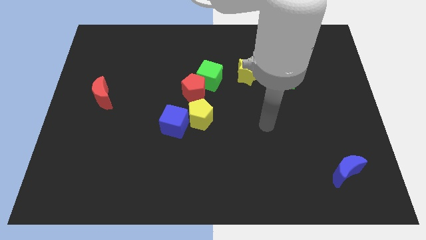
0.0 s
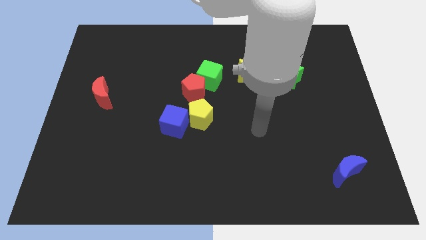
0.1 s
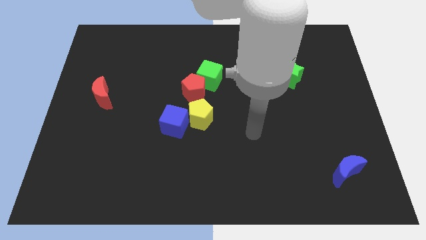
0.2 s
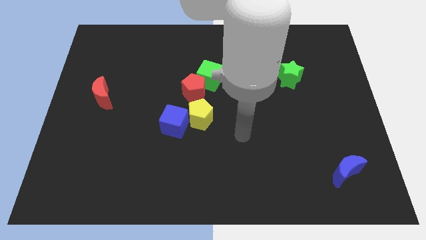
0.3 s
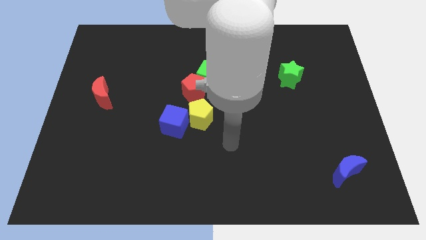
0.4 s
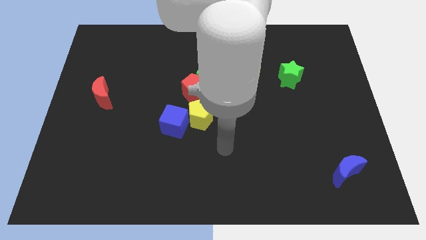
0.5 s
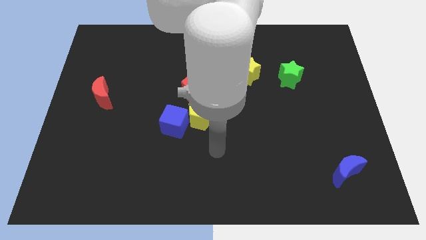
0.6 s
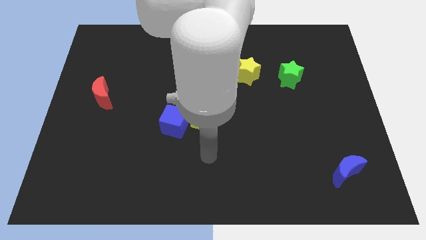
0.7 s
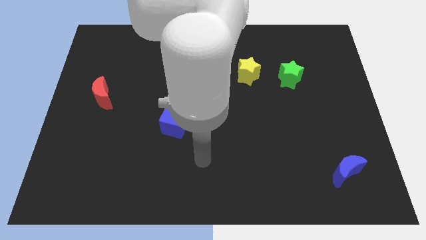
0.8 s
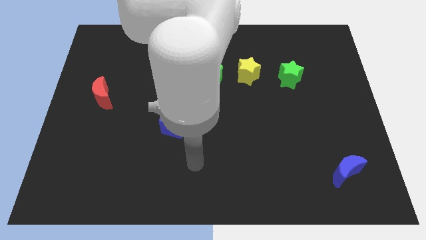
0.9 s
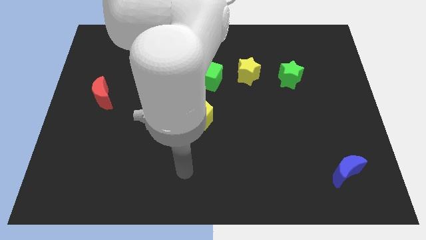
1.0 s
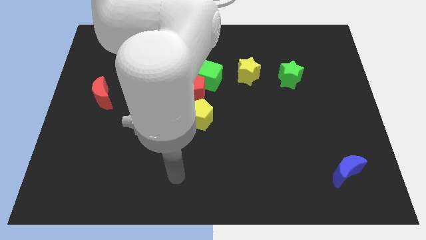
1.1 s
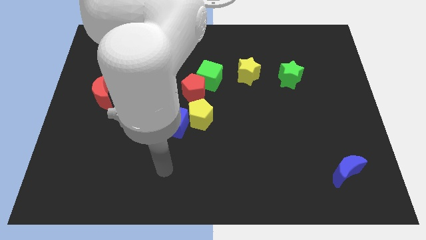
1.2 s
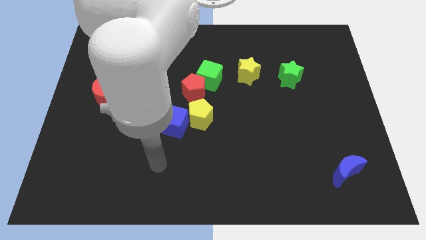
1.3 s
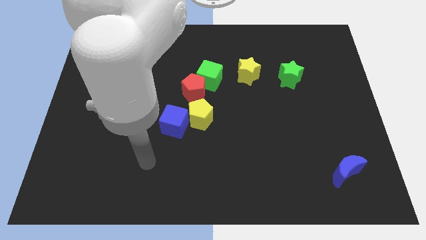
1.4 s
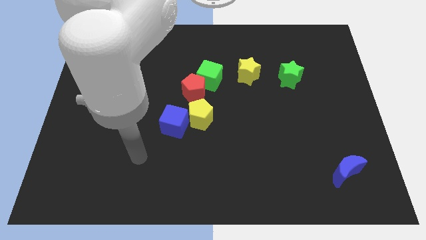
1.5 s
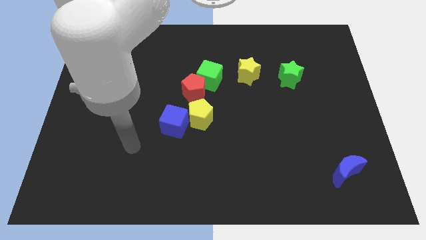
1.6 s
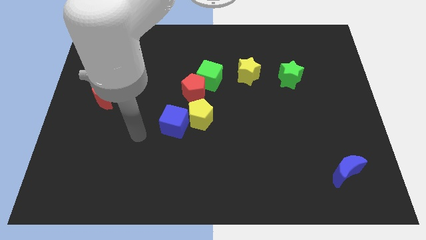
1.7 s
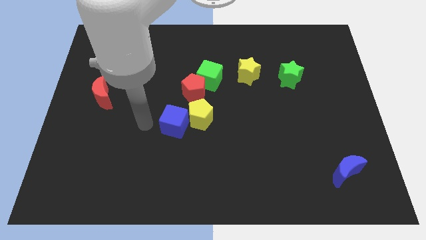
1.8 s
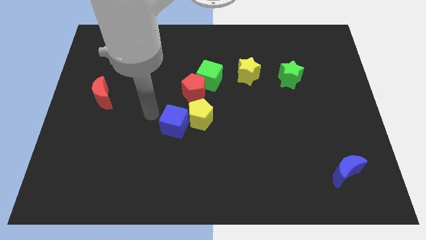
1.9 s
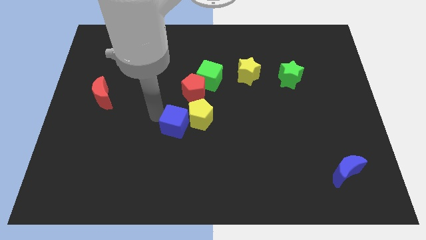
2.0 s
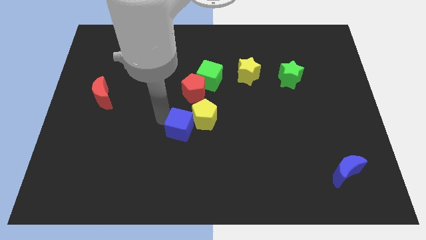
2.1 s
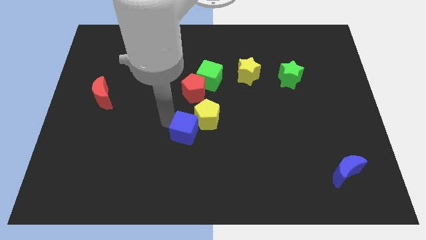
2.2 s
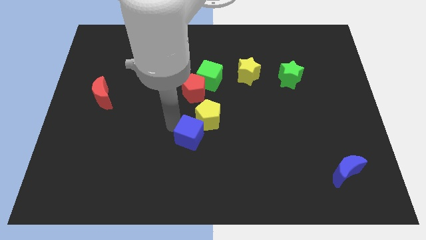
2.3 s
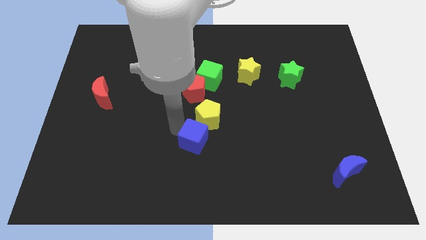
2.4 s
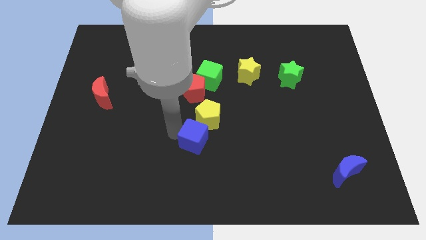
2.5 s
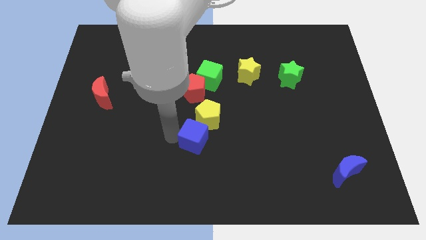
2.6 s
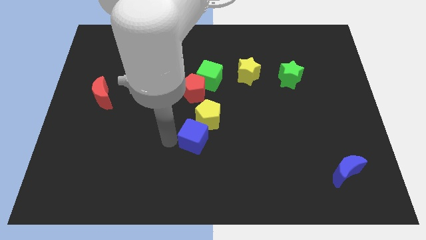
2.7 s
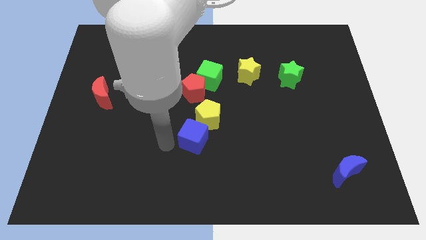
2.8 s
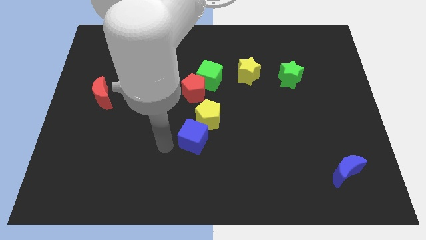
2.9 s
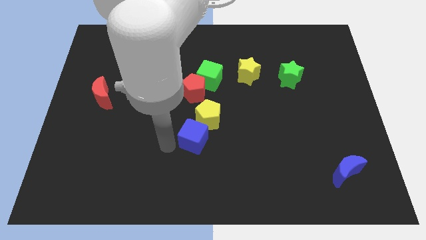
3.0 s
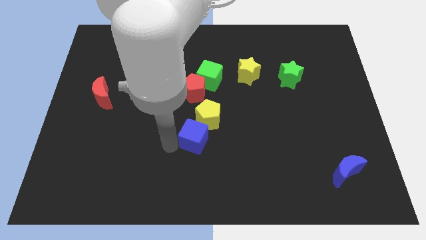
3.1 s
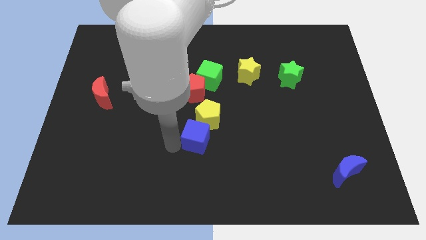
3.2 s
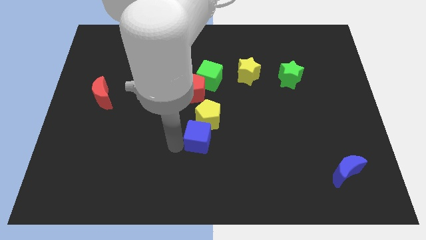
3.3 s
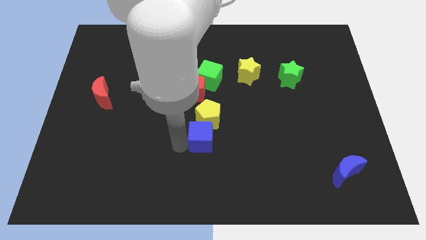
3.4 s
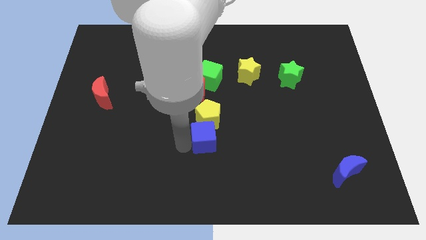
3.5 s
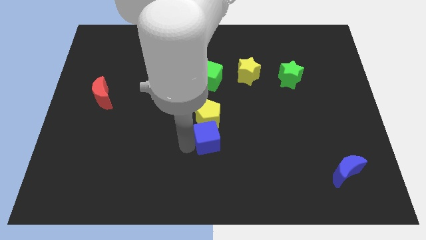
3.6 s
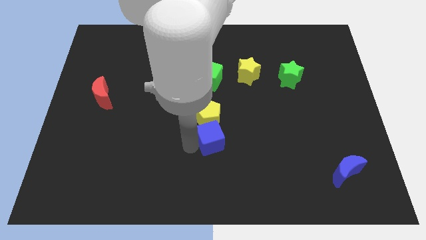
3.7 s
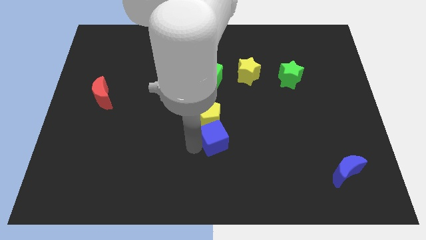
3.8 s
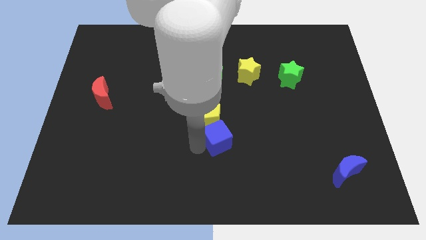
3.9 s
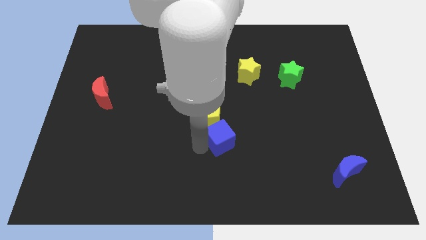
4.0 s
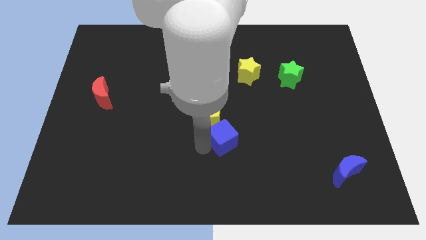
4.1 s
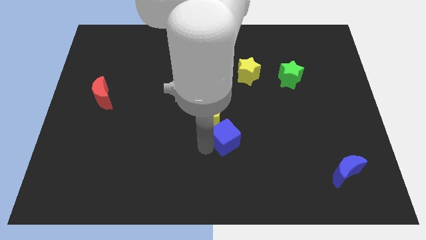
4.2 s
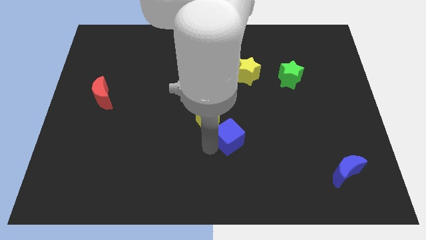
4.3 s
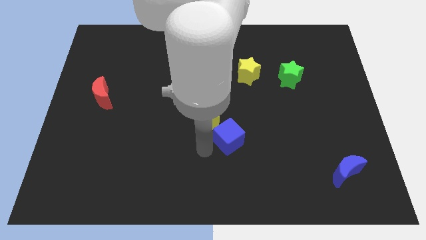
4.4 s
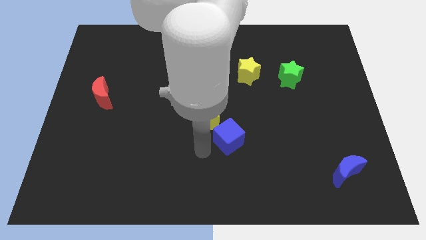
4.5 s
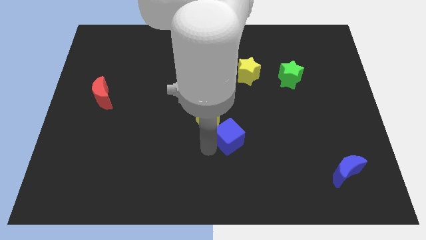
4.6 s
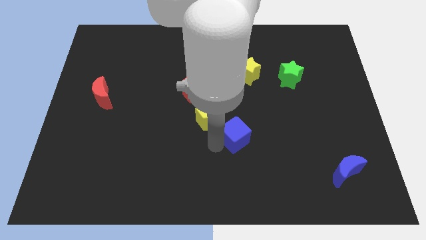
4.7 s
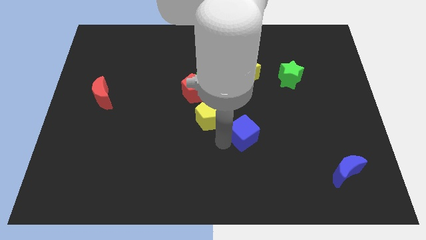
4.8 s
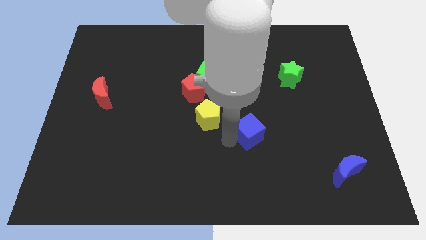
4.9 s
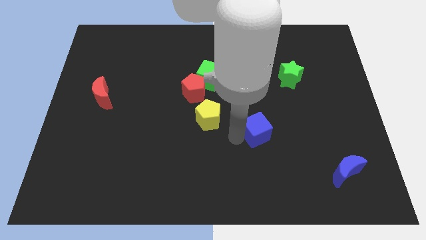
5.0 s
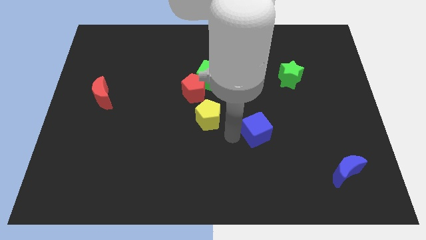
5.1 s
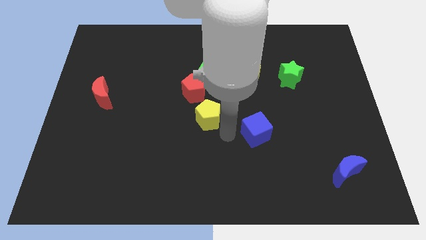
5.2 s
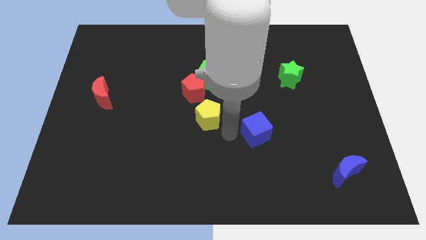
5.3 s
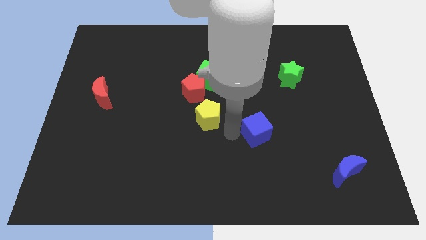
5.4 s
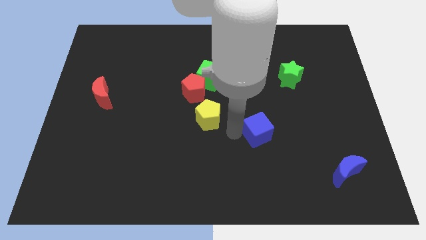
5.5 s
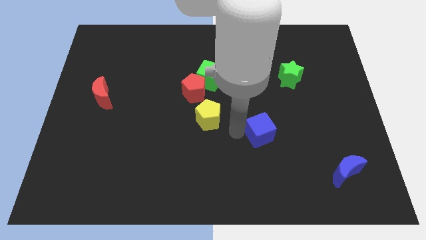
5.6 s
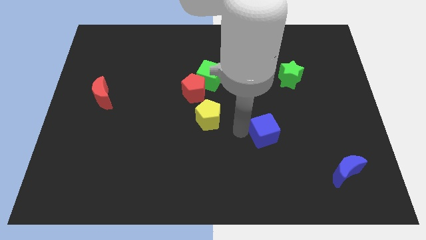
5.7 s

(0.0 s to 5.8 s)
slide the blue cube right

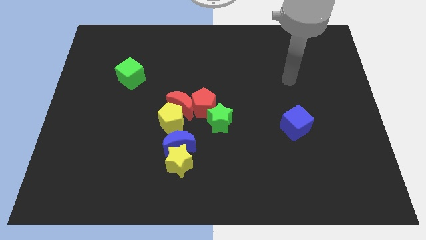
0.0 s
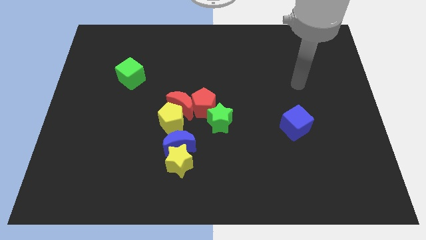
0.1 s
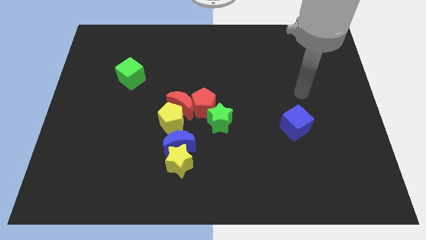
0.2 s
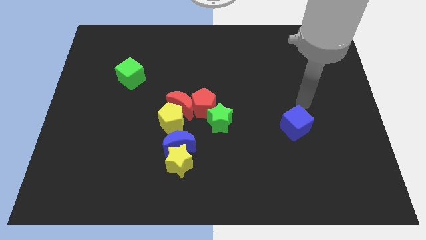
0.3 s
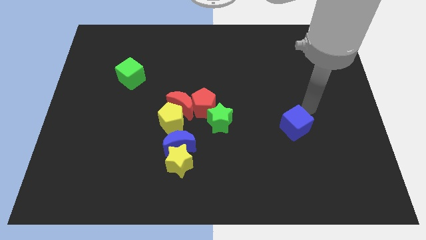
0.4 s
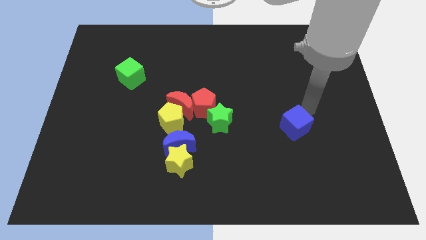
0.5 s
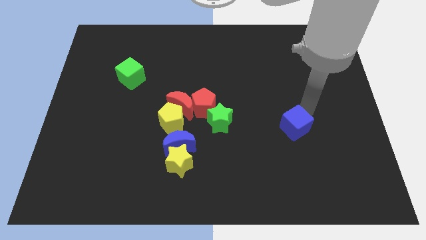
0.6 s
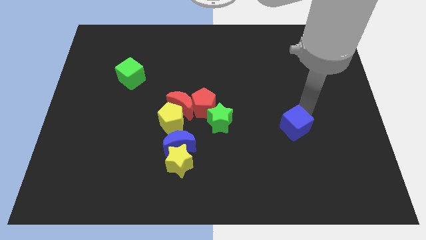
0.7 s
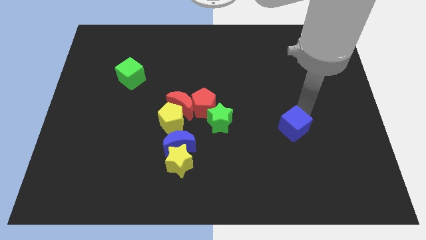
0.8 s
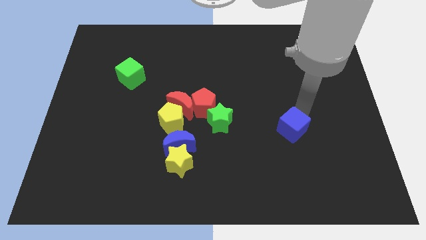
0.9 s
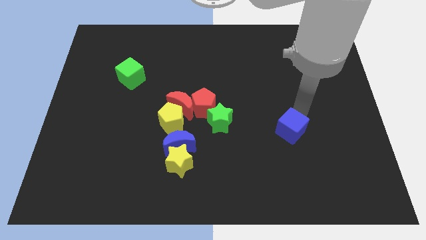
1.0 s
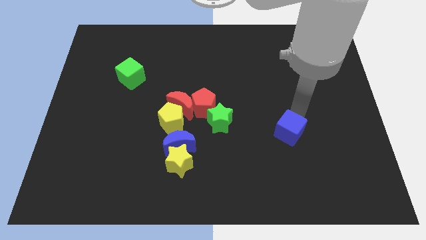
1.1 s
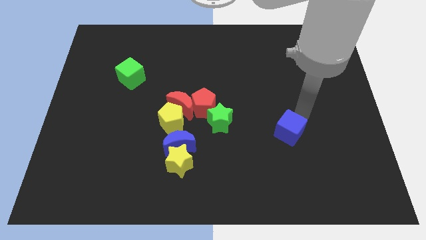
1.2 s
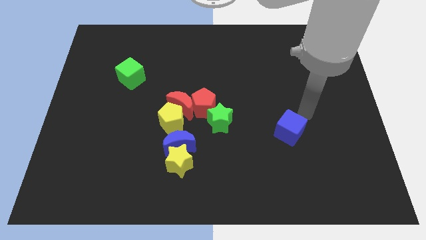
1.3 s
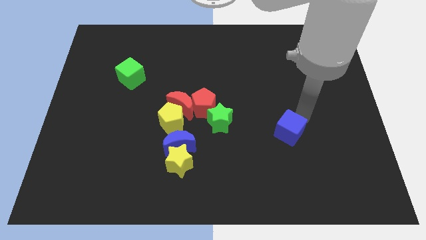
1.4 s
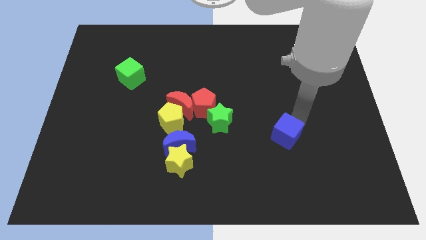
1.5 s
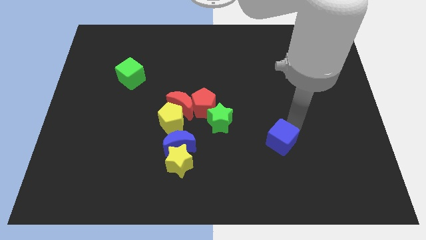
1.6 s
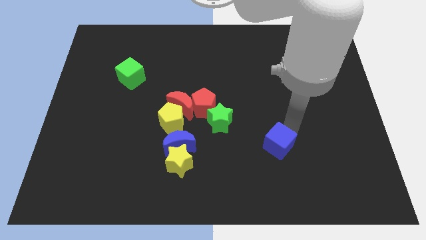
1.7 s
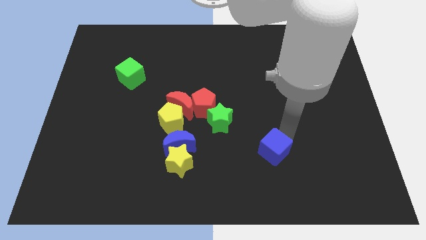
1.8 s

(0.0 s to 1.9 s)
push the blue cube diagonally downwards and left a little

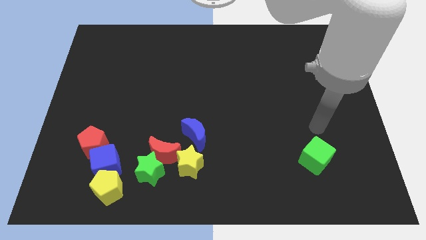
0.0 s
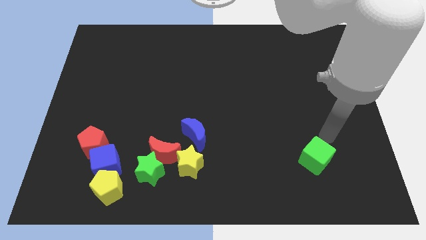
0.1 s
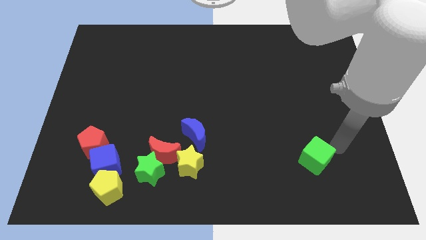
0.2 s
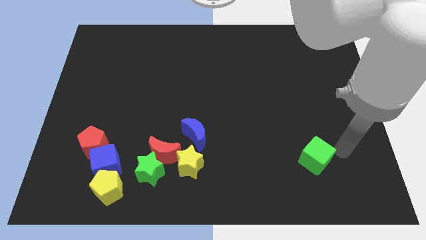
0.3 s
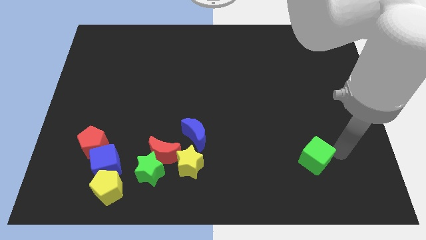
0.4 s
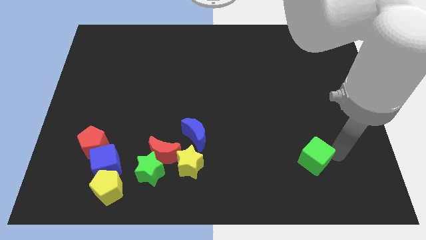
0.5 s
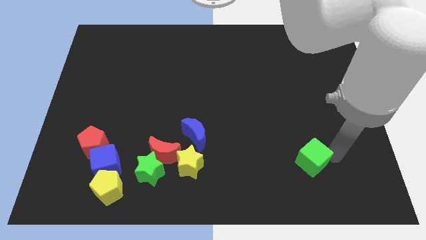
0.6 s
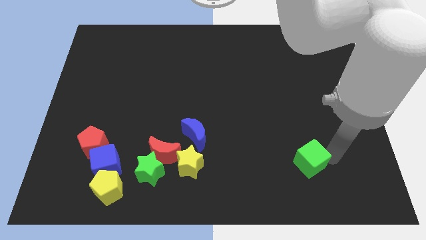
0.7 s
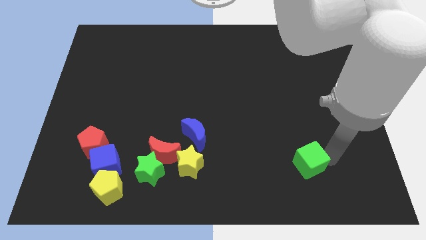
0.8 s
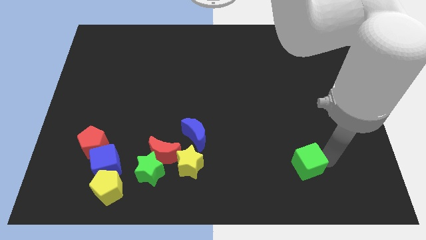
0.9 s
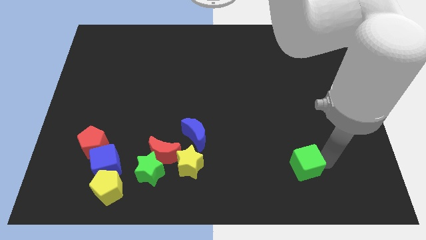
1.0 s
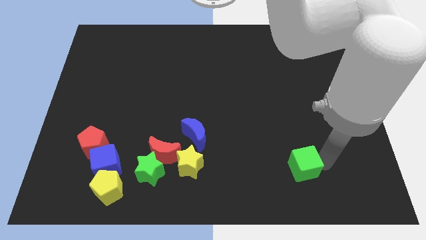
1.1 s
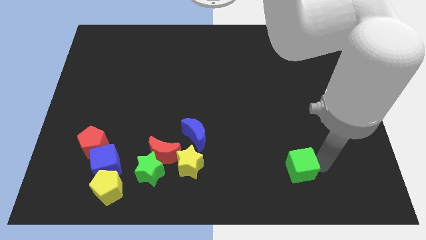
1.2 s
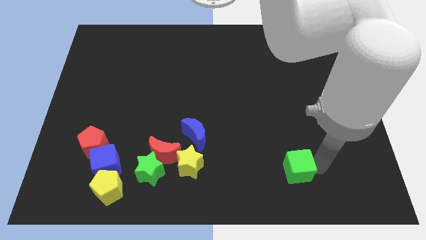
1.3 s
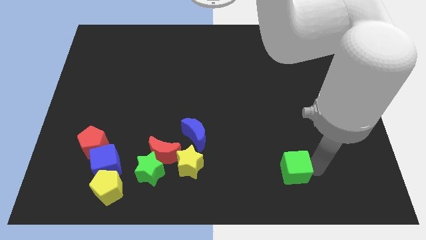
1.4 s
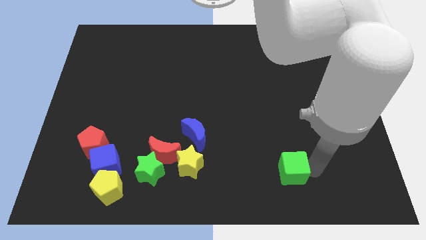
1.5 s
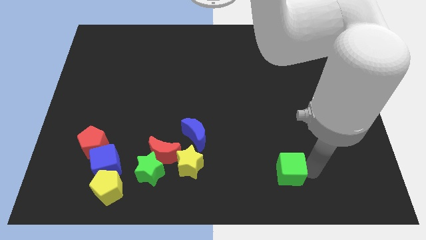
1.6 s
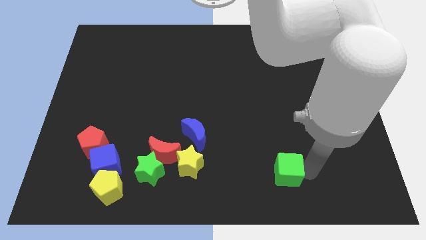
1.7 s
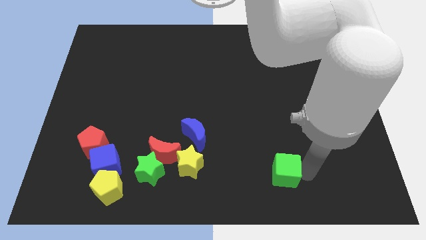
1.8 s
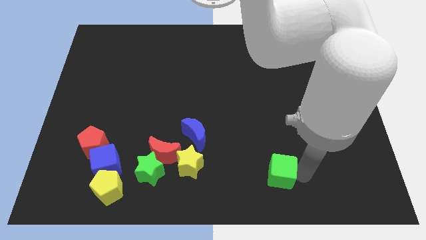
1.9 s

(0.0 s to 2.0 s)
push the green cube left a little
